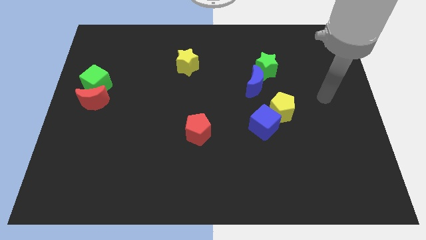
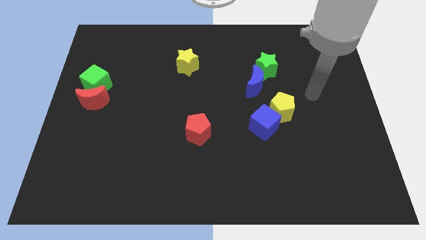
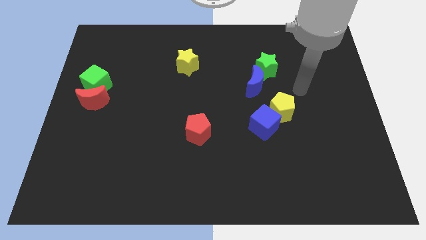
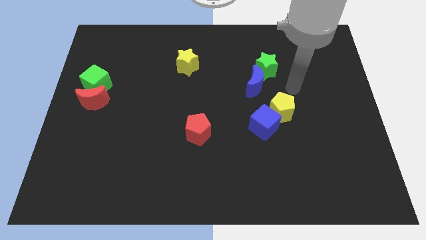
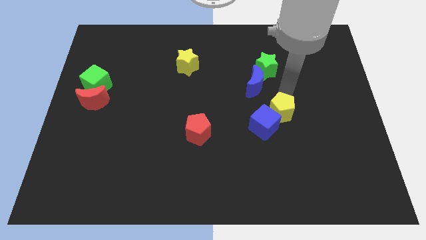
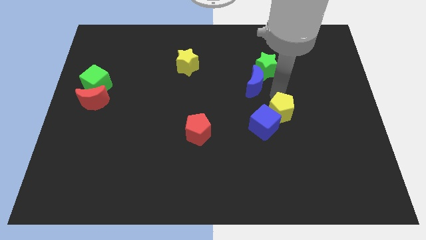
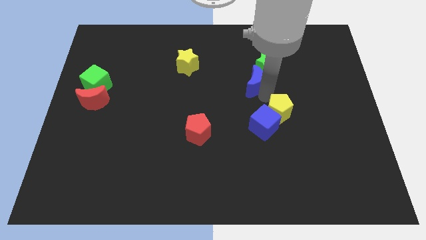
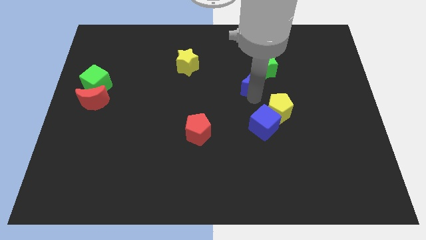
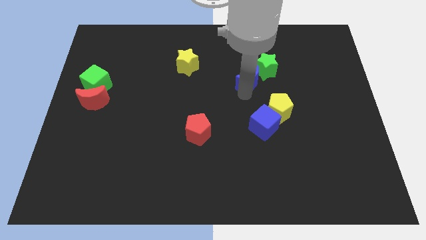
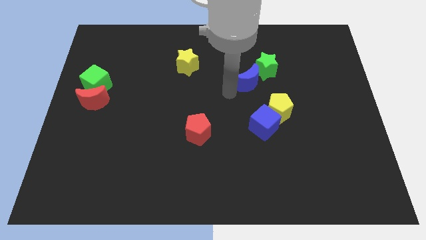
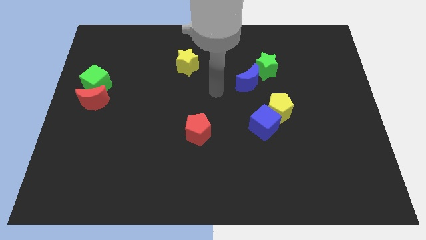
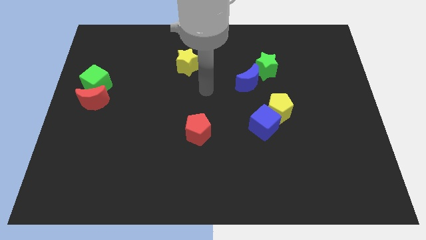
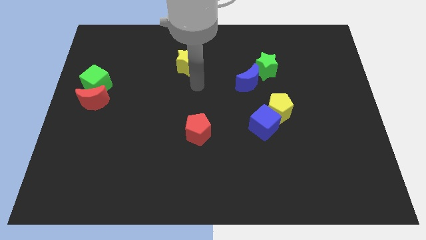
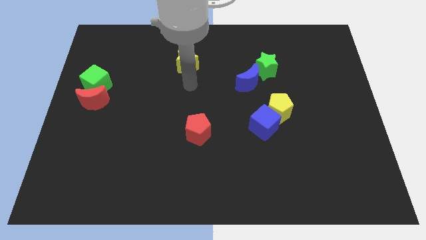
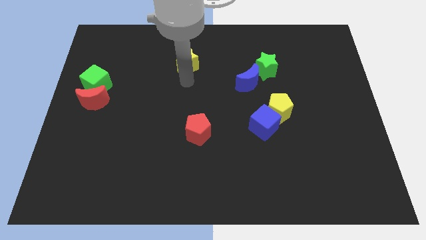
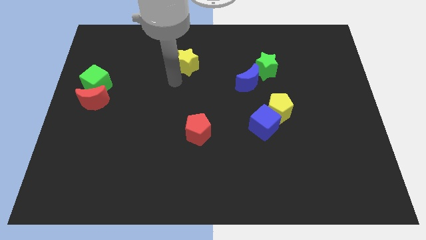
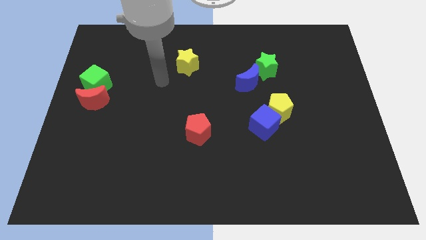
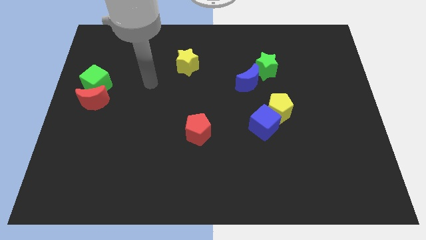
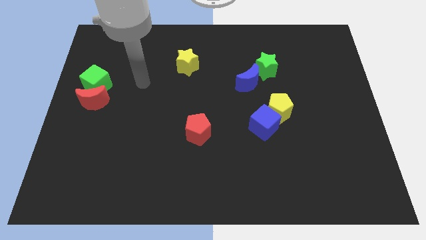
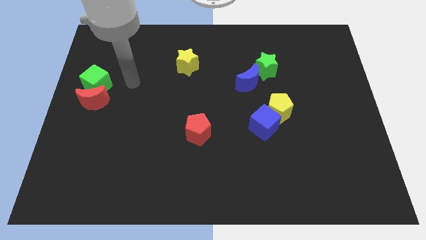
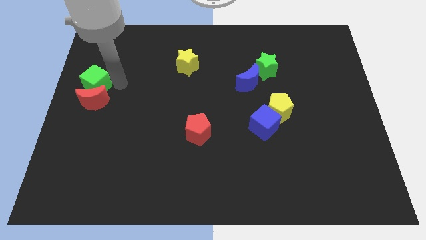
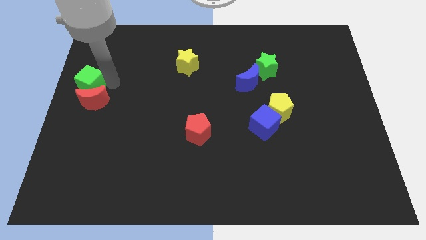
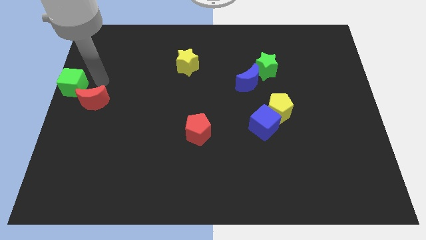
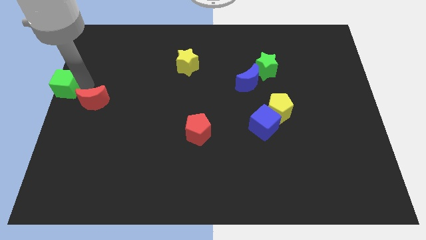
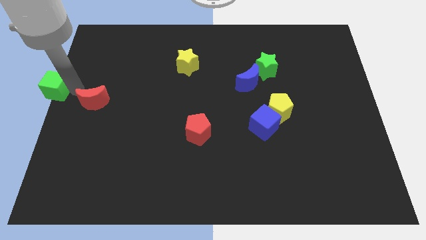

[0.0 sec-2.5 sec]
move the red moon away from the green cube

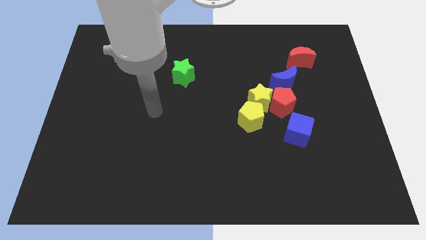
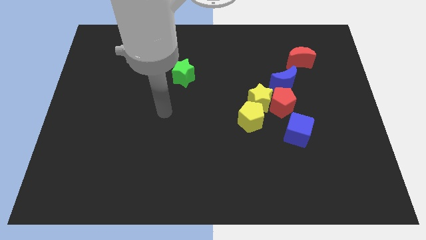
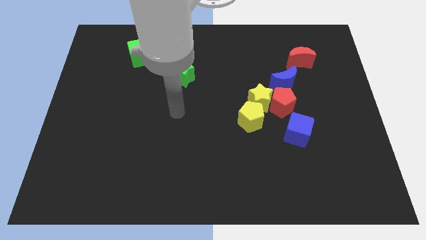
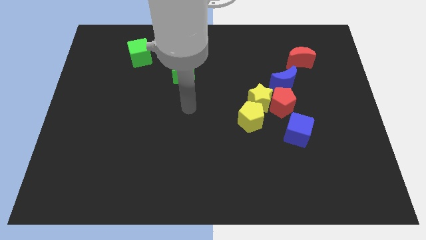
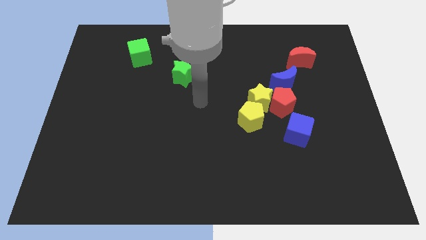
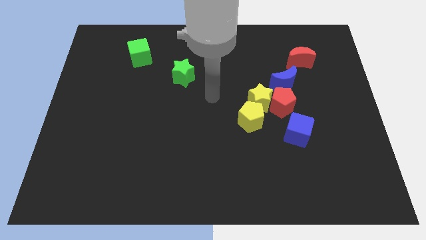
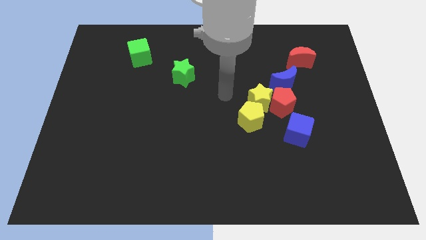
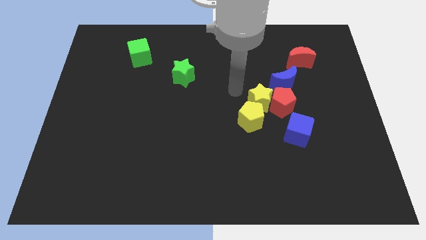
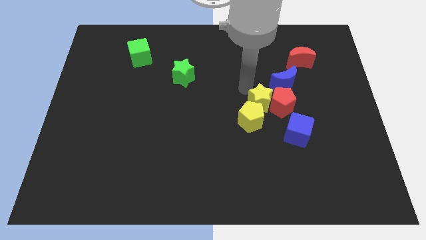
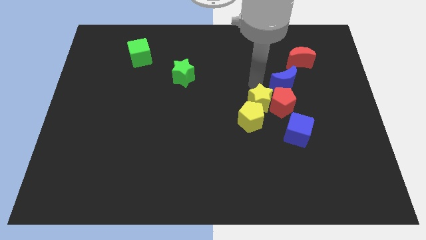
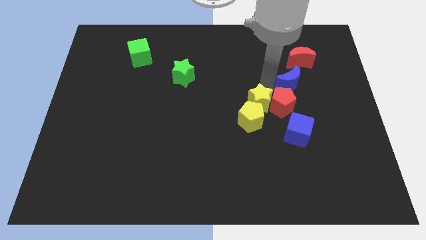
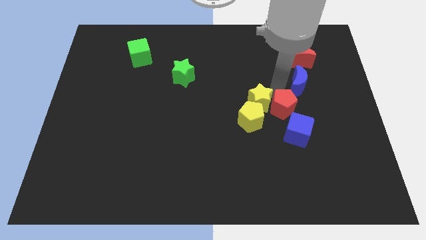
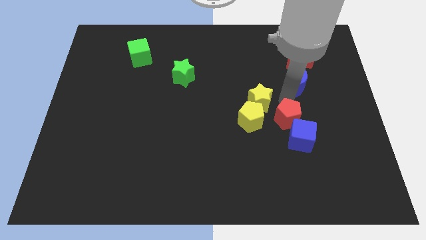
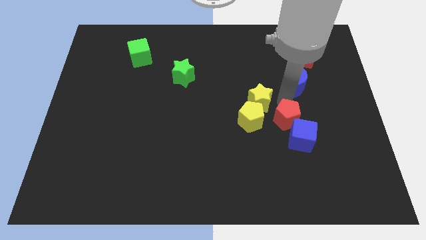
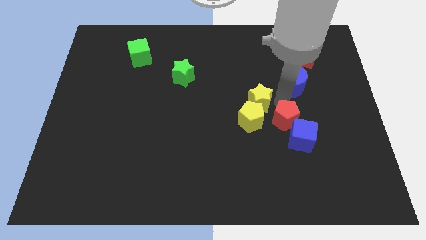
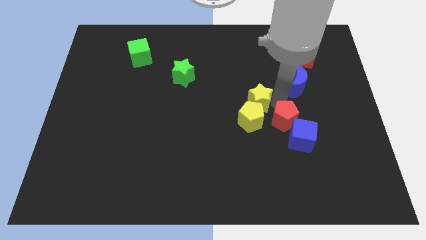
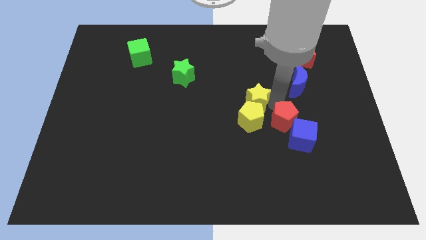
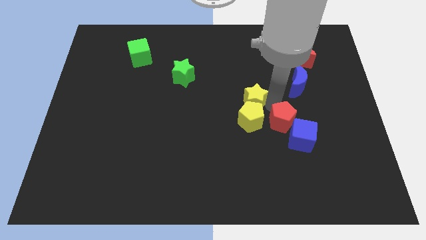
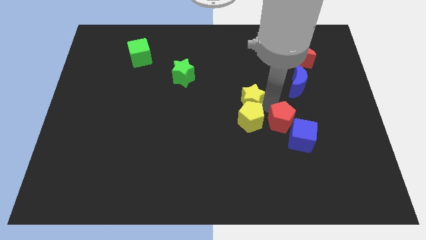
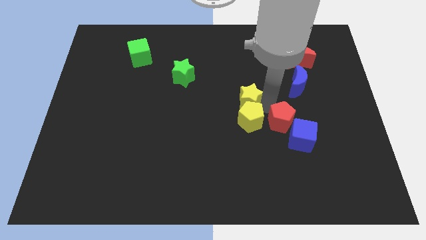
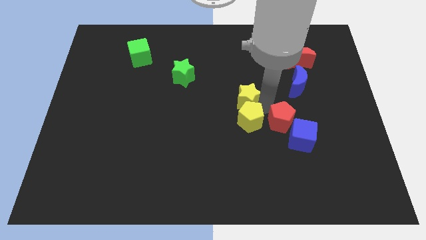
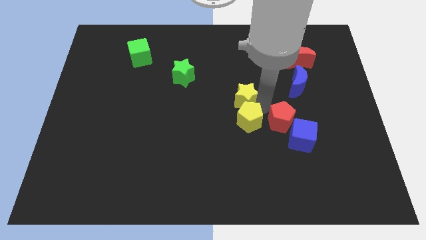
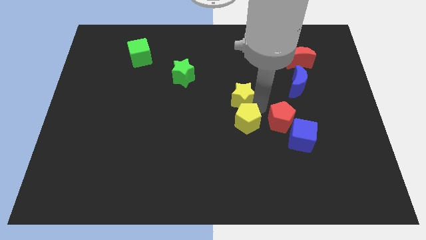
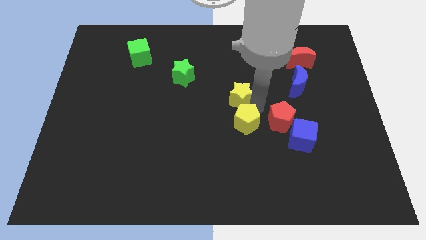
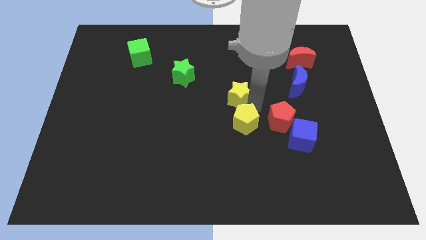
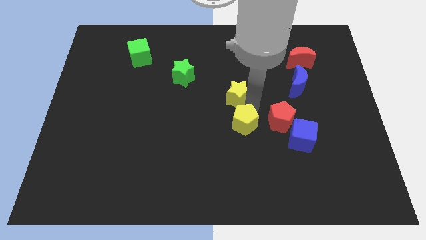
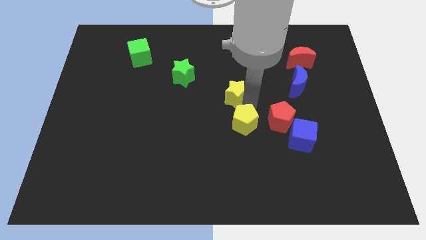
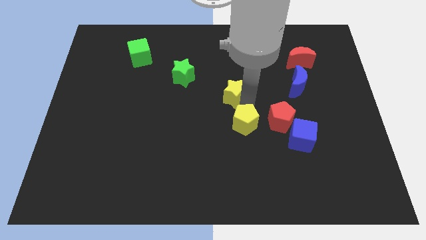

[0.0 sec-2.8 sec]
move the yellow star away from the group

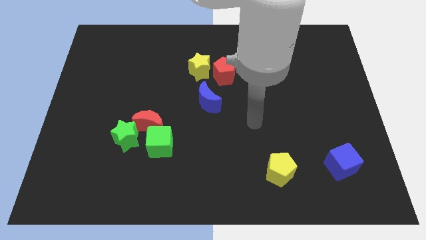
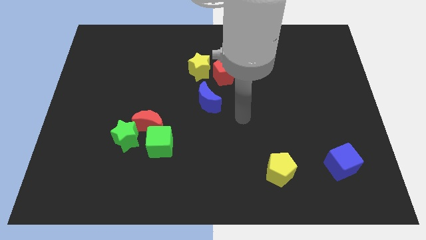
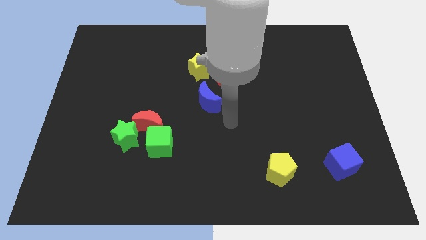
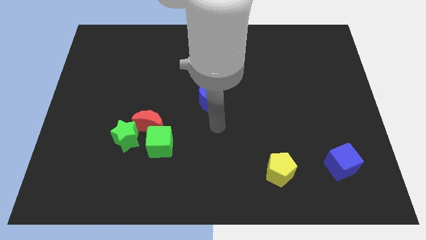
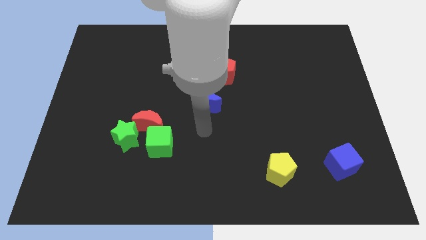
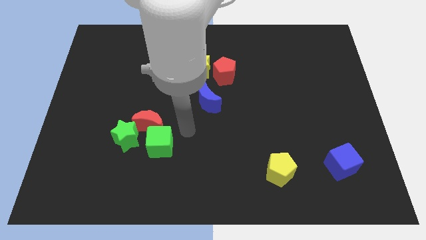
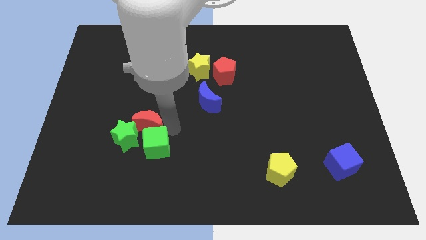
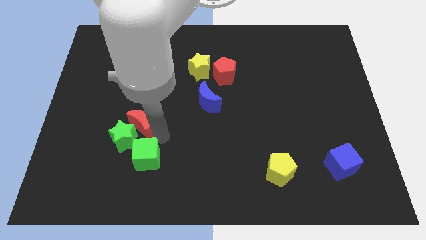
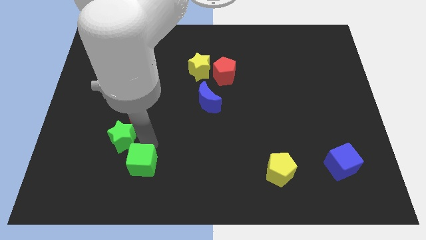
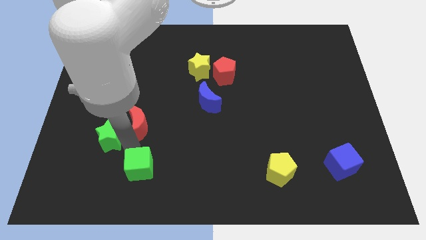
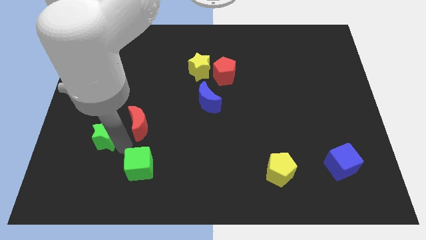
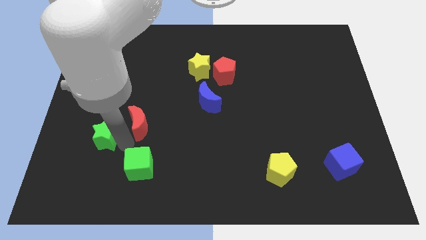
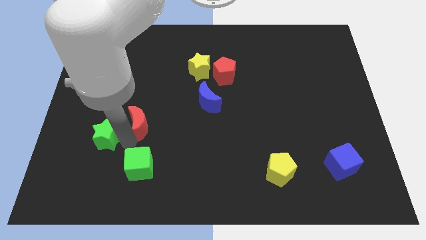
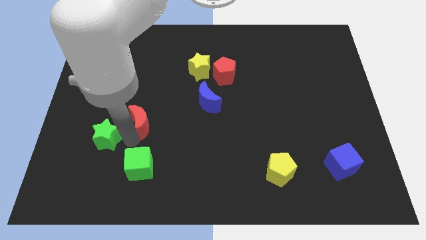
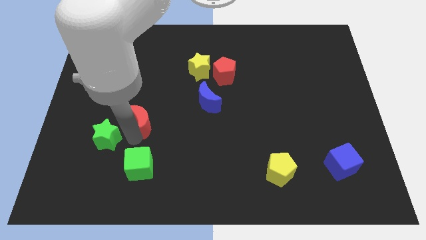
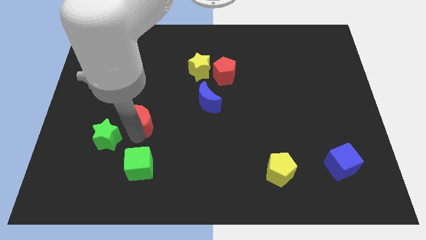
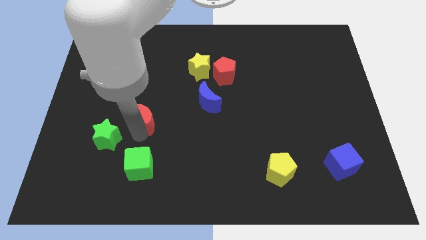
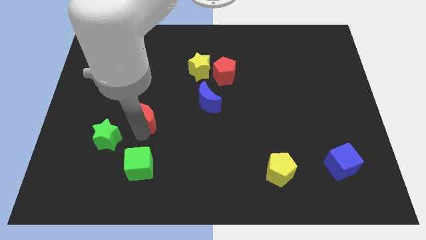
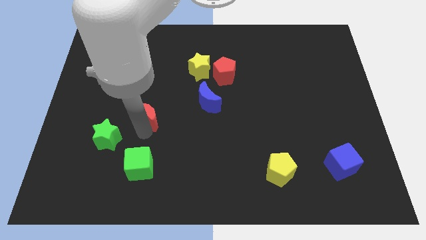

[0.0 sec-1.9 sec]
separate the red moon from the green cube and green star

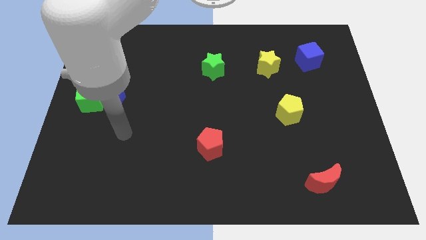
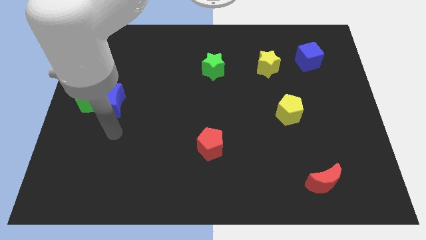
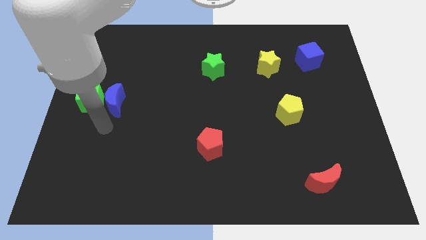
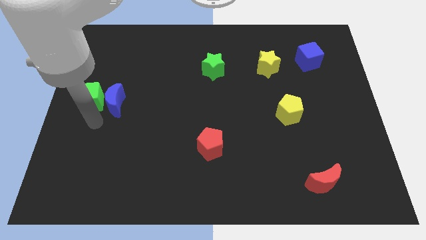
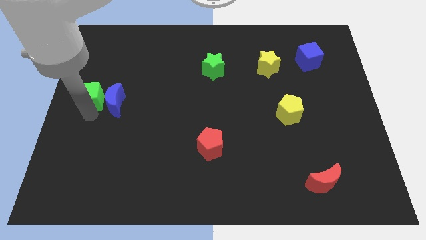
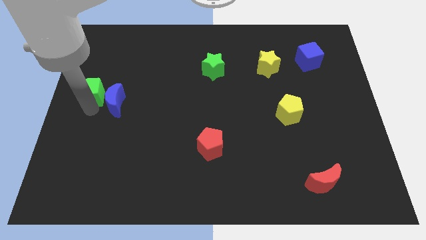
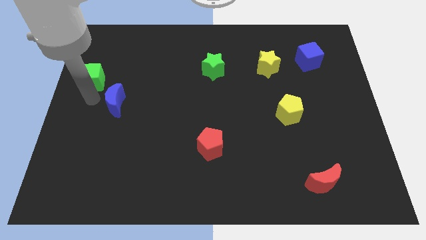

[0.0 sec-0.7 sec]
pull the blue moon apart from the green cube

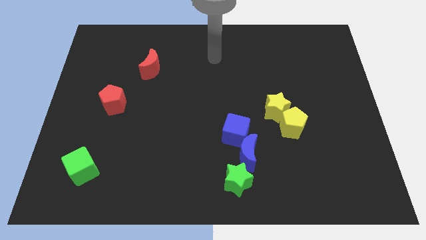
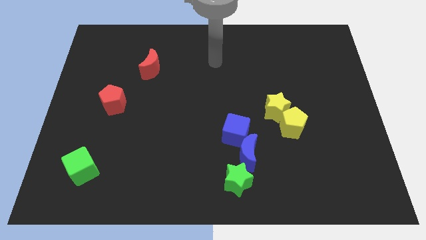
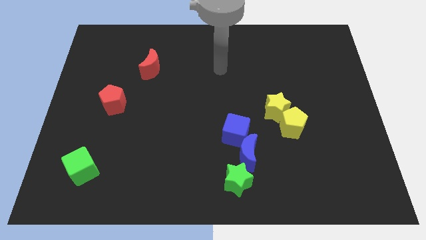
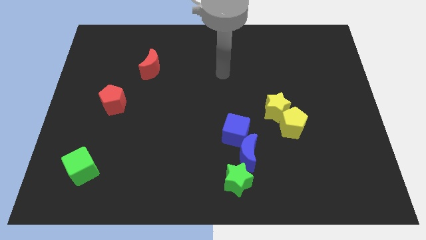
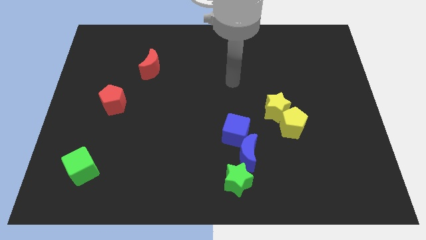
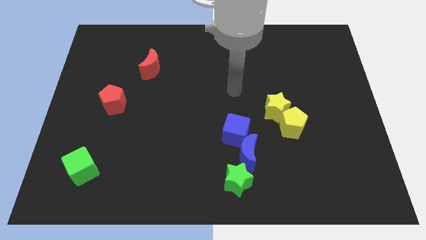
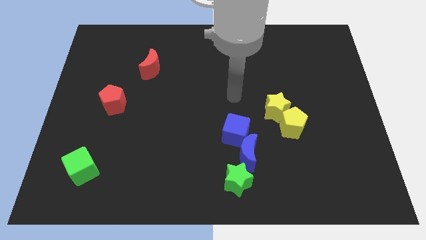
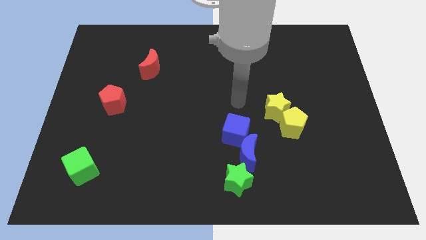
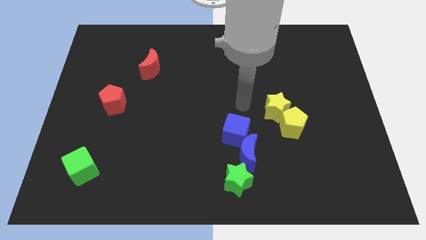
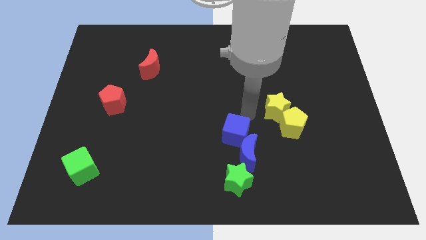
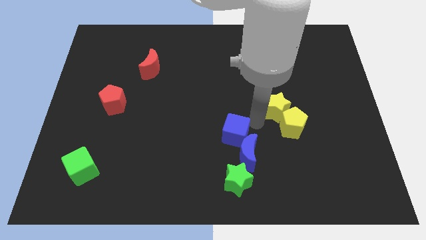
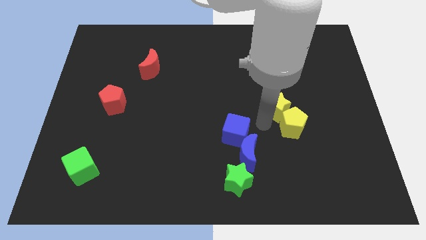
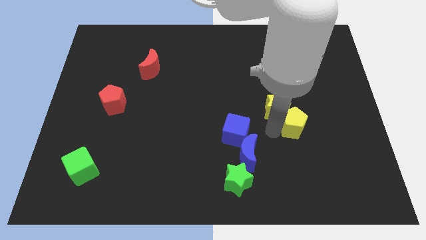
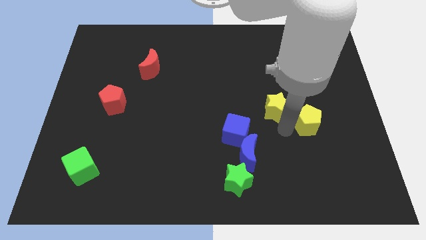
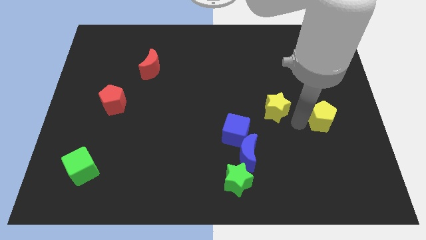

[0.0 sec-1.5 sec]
pull the yellow star apart from the yellow pentagon
